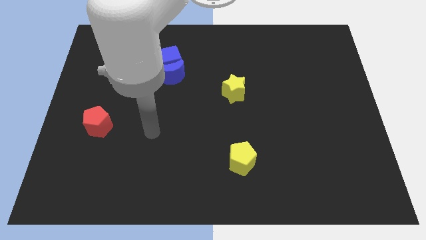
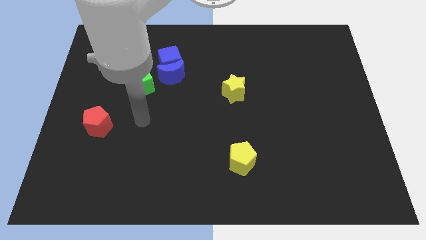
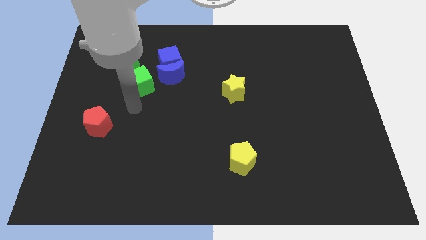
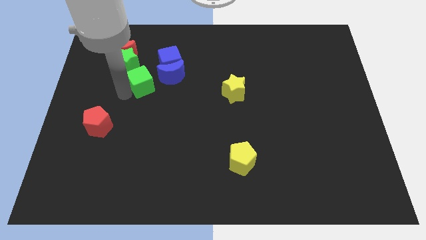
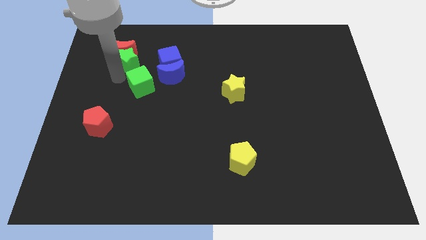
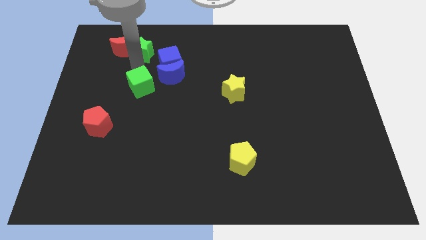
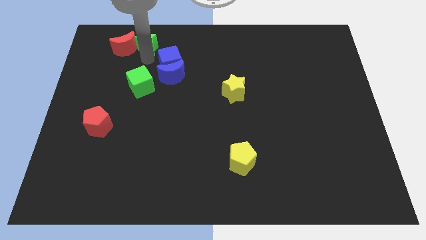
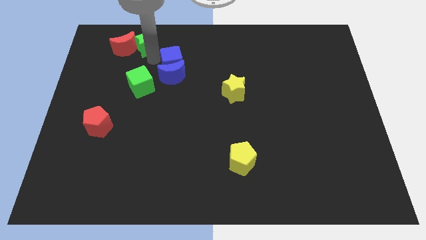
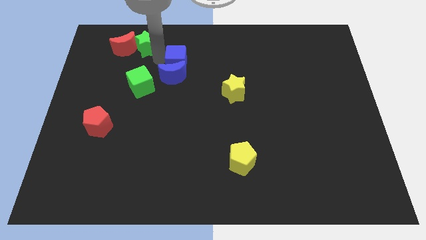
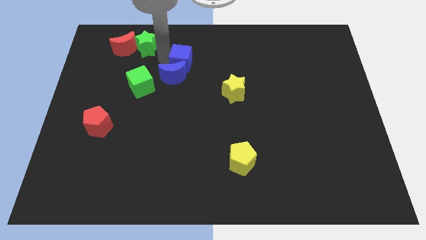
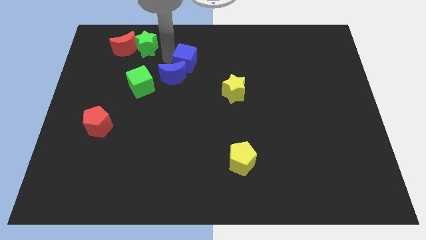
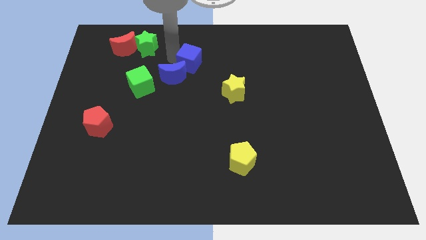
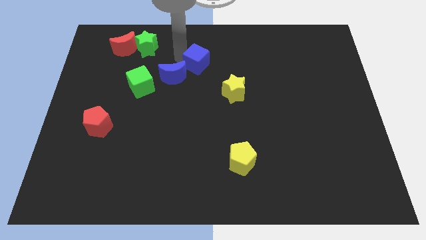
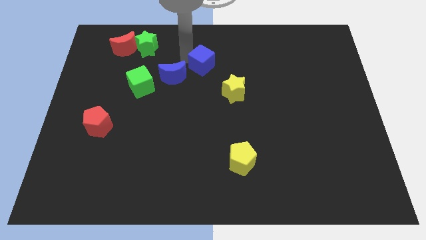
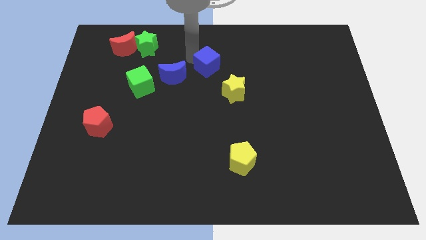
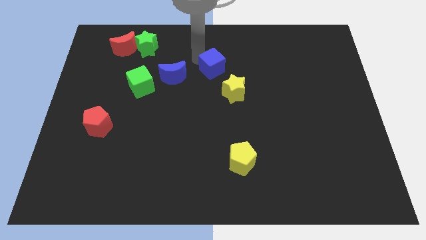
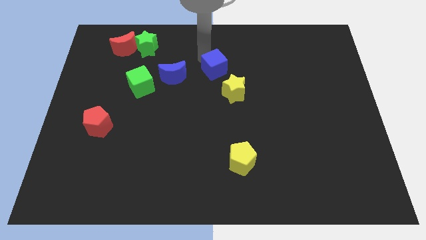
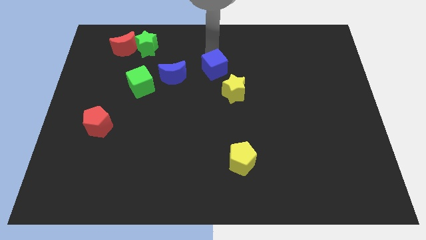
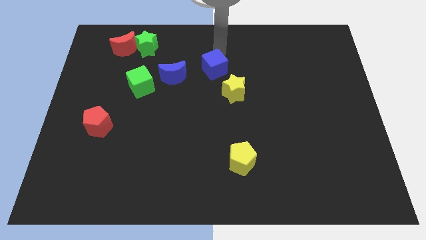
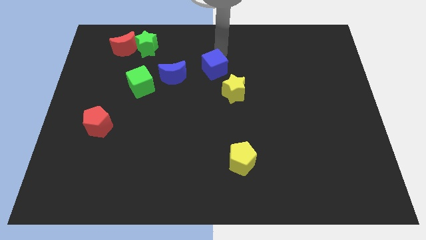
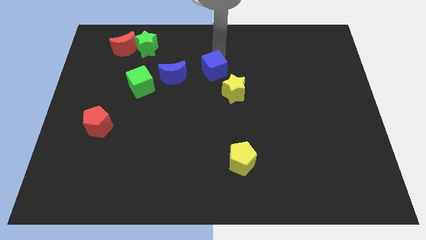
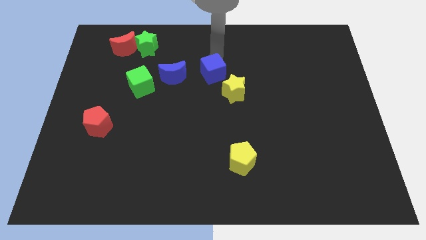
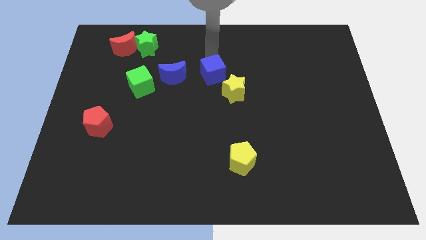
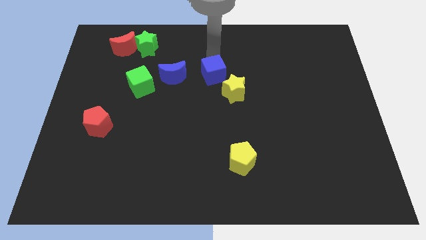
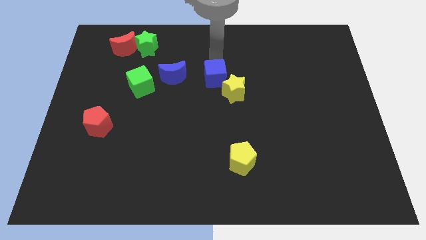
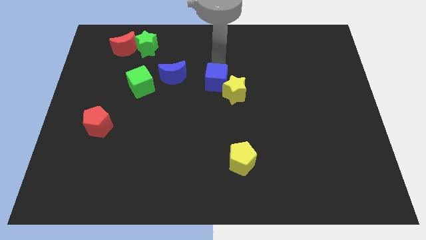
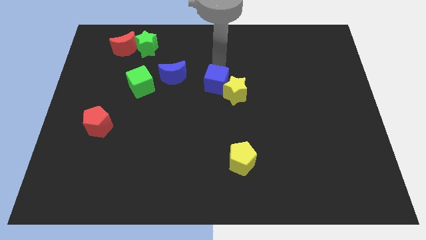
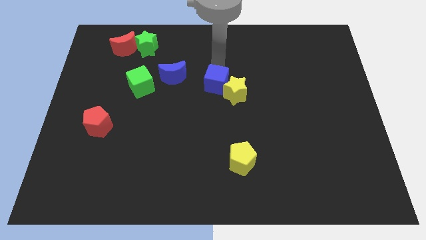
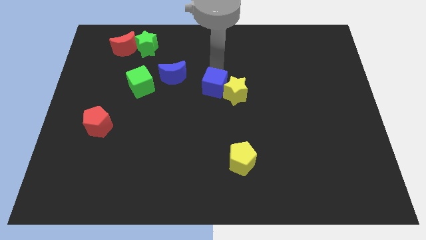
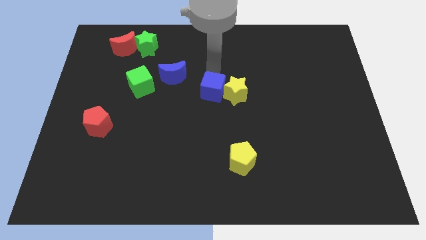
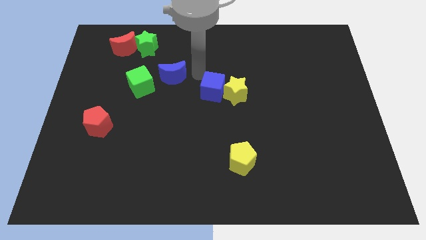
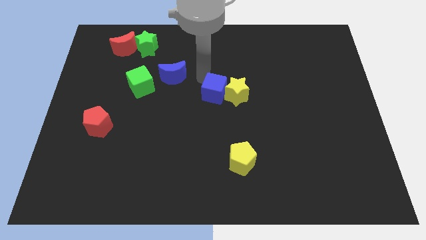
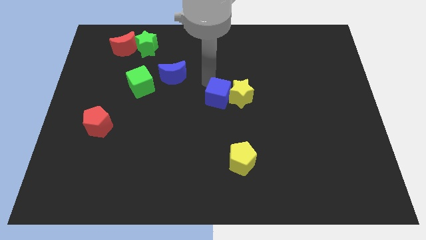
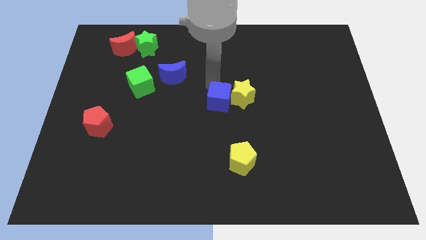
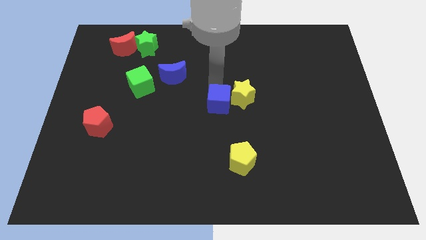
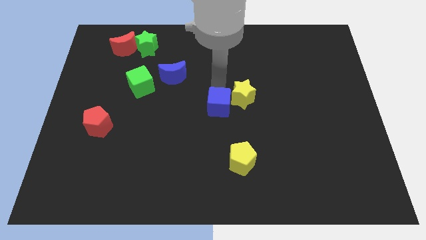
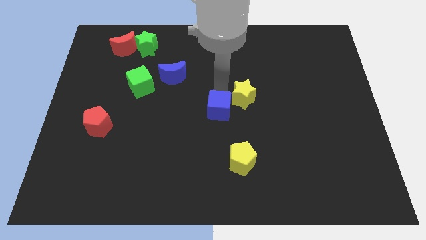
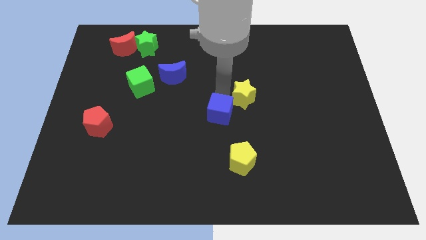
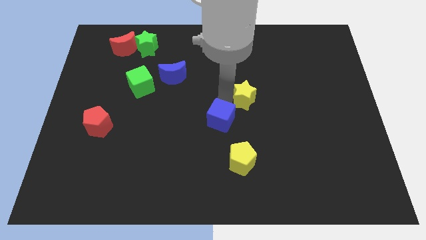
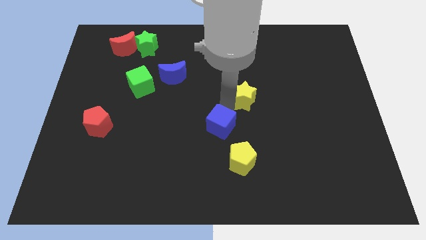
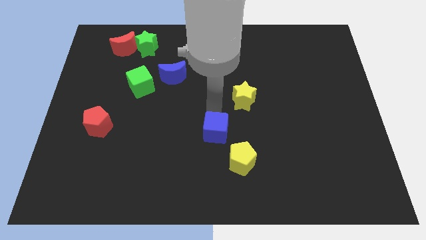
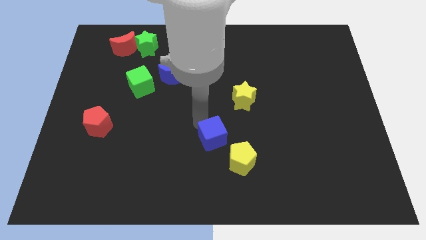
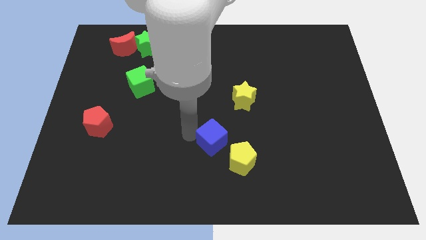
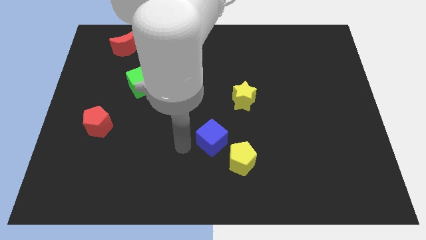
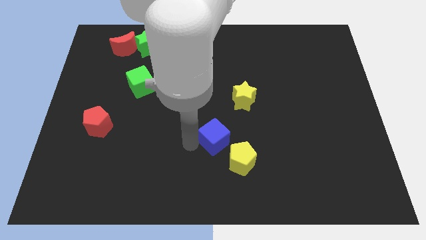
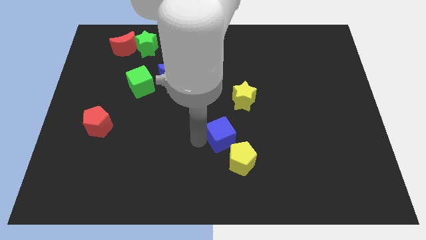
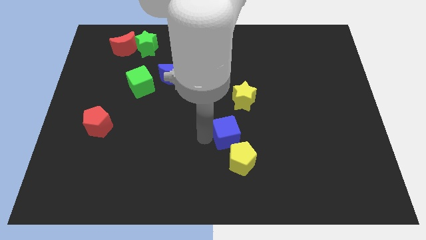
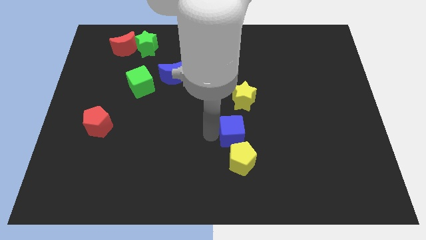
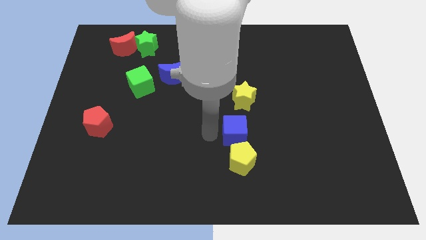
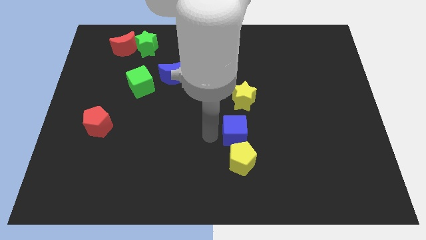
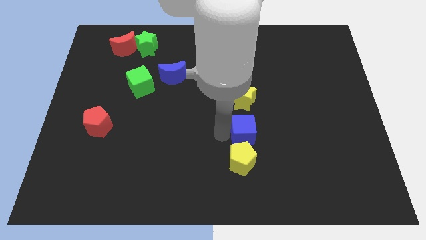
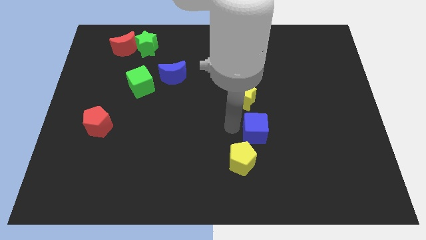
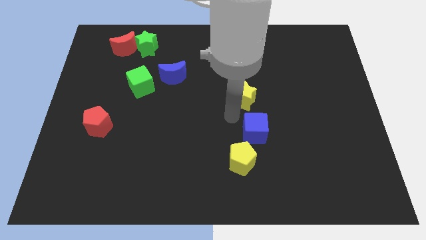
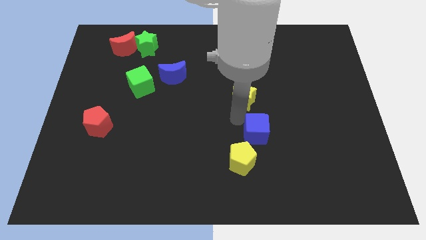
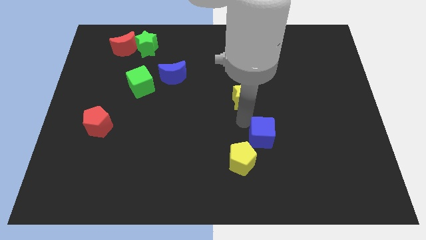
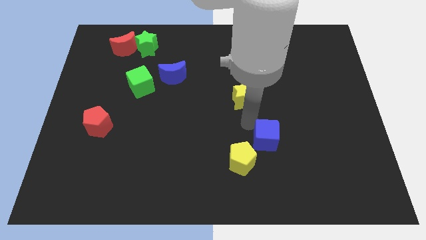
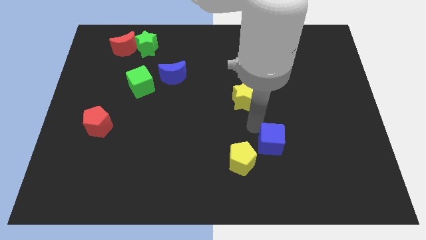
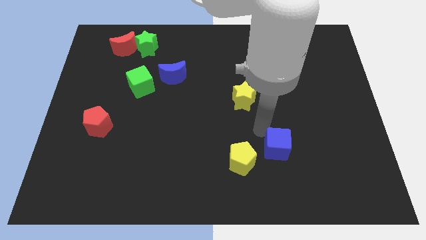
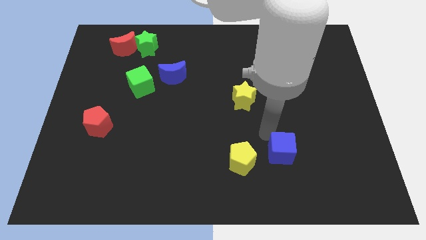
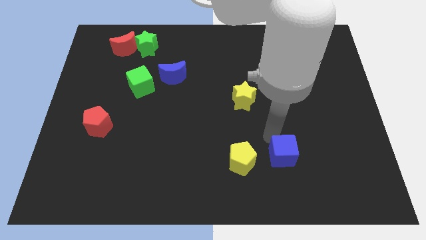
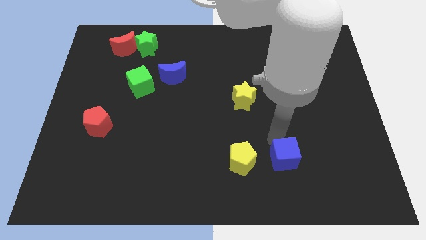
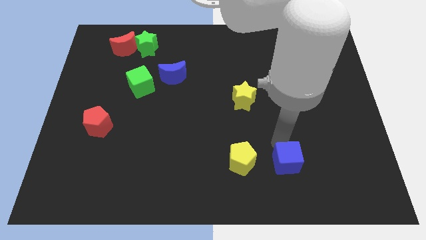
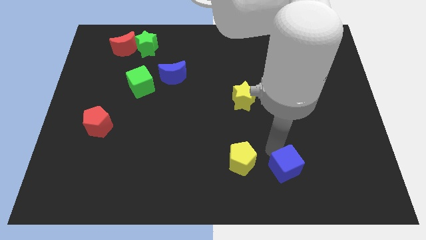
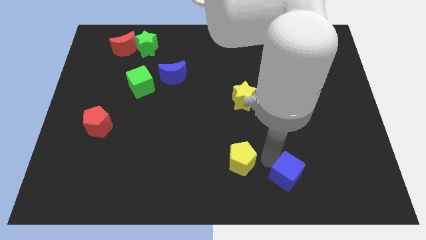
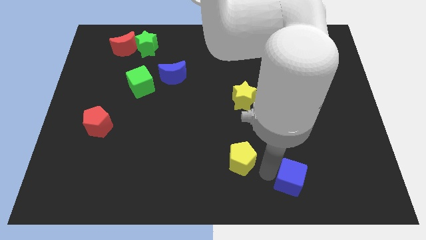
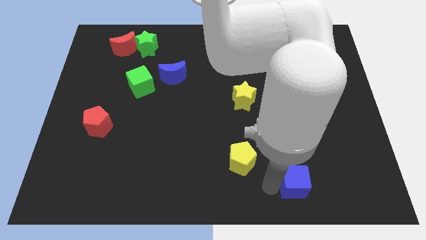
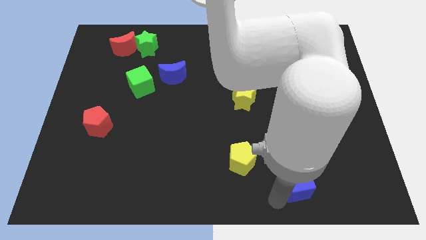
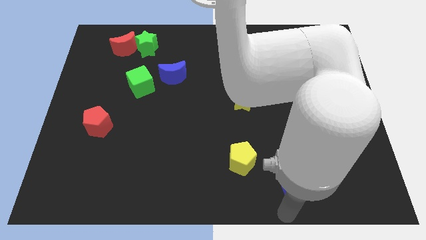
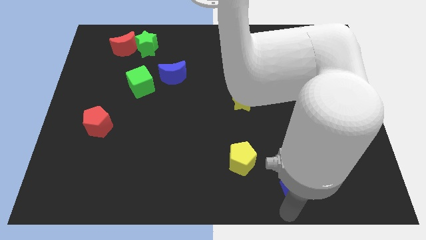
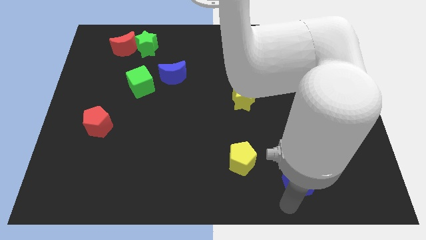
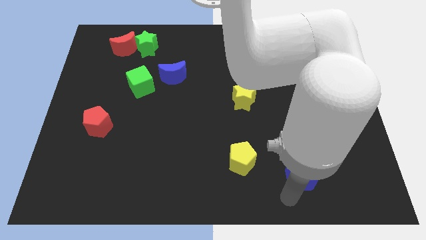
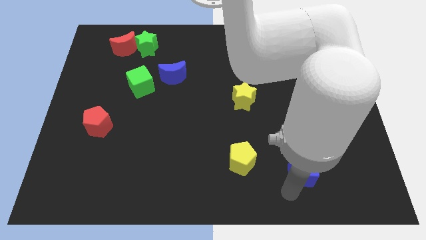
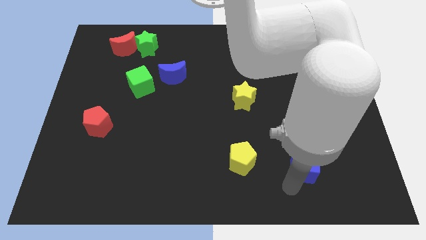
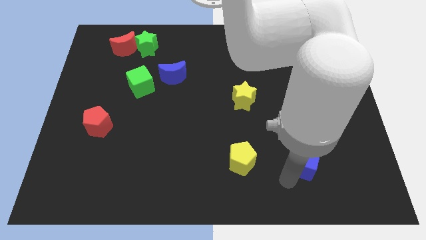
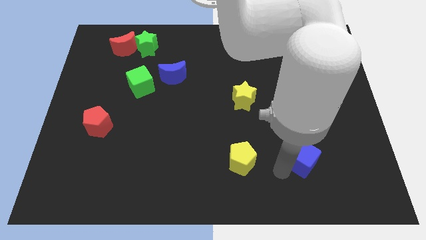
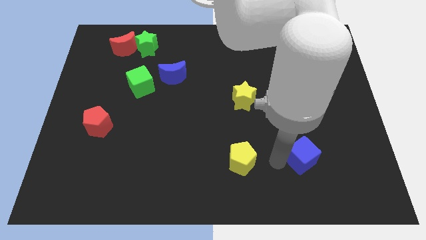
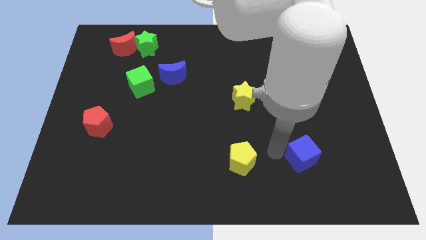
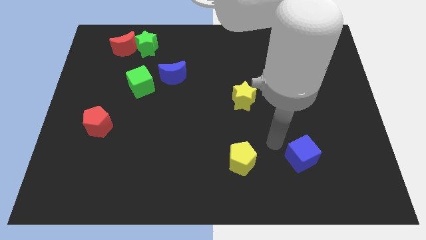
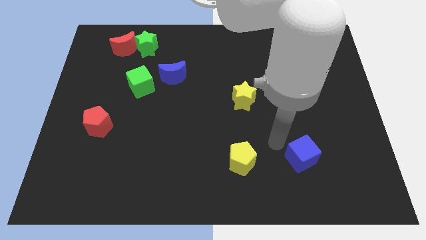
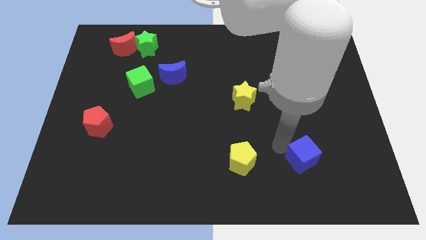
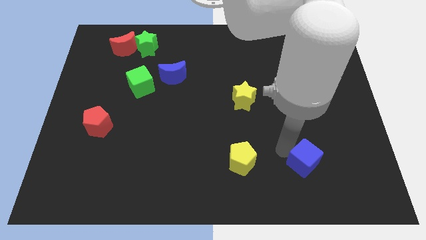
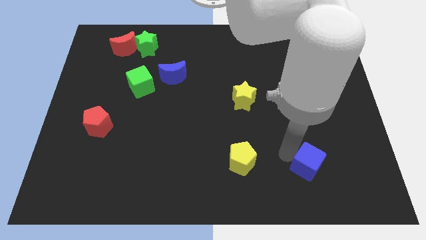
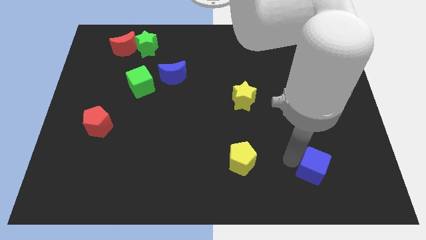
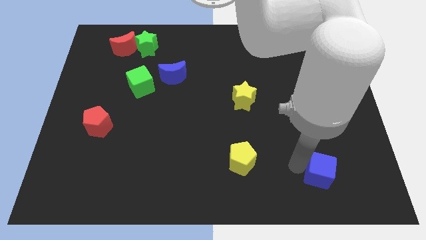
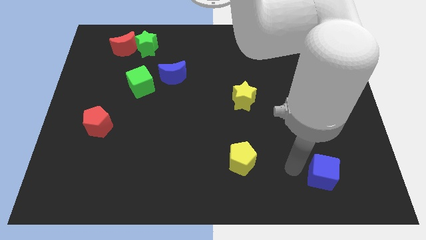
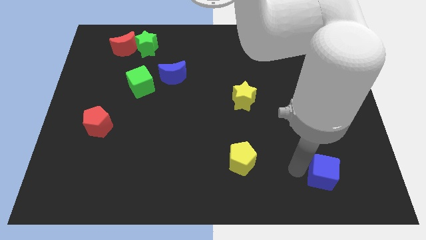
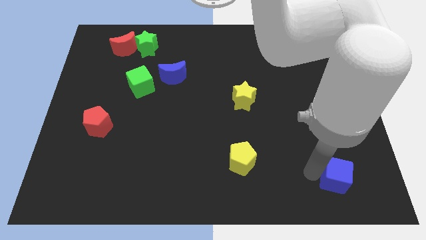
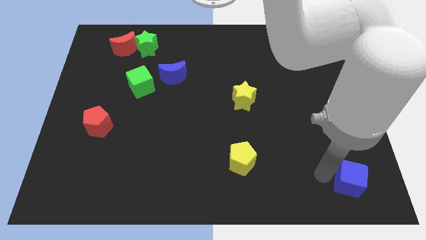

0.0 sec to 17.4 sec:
push the blue cube to the bottom right
